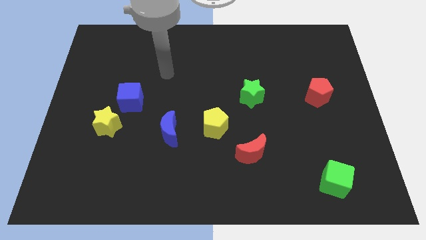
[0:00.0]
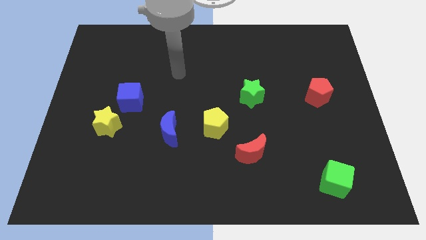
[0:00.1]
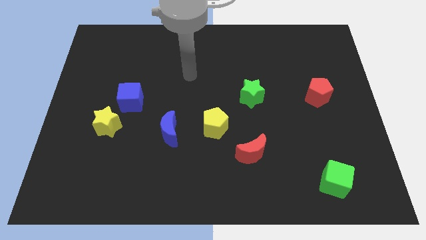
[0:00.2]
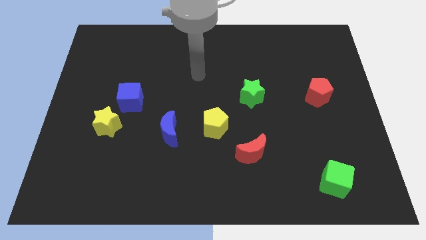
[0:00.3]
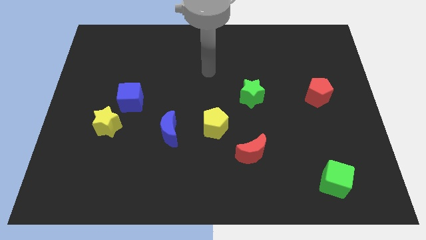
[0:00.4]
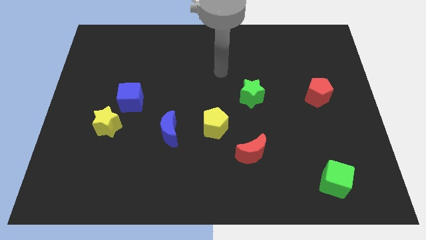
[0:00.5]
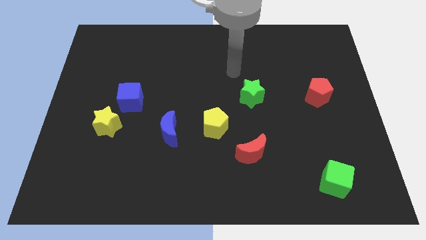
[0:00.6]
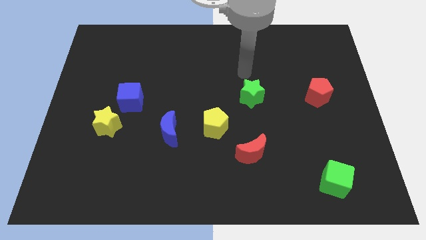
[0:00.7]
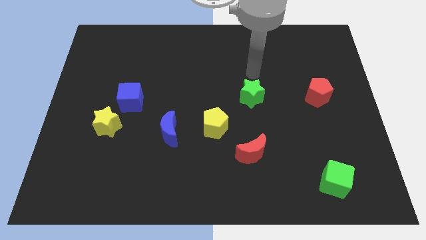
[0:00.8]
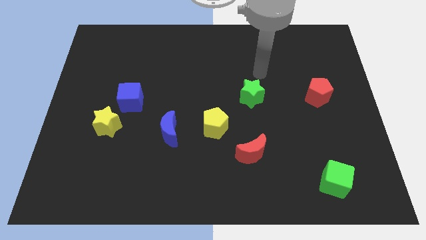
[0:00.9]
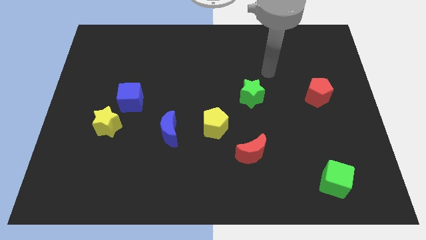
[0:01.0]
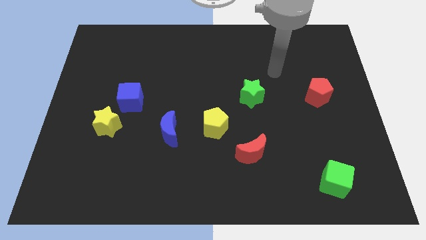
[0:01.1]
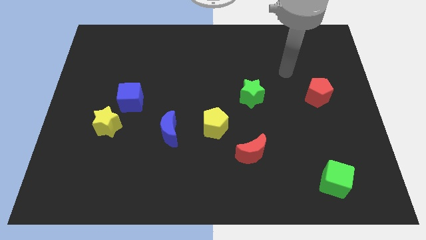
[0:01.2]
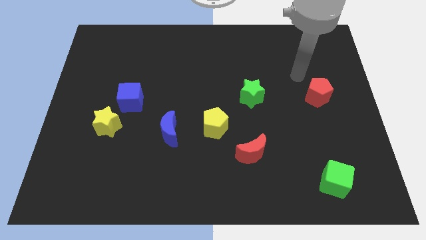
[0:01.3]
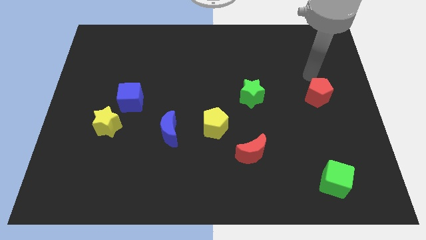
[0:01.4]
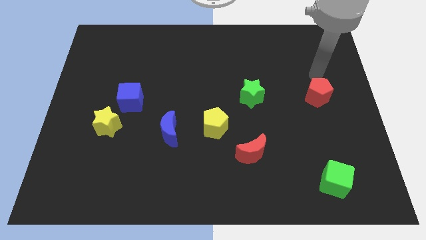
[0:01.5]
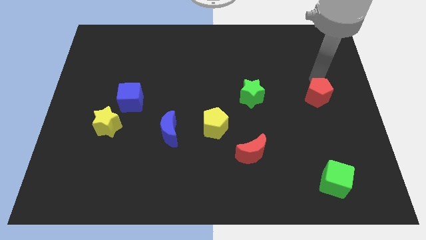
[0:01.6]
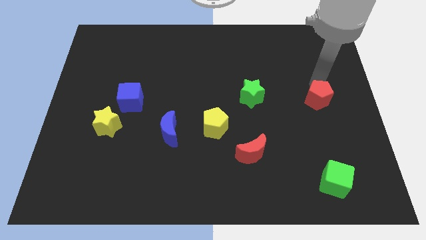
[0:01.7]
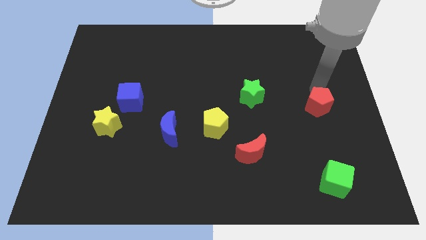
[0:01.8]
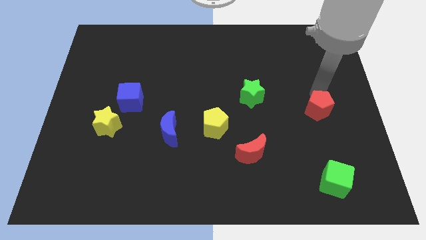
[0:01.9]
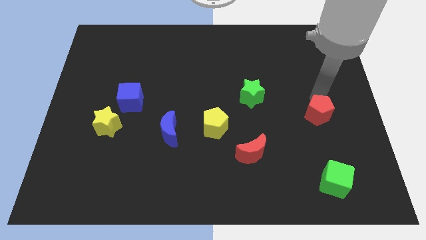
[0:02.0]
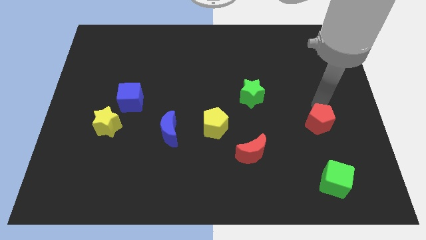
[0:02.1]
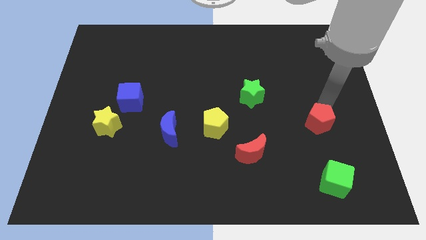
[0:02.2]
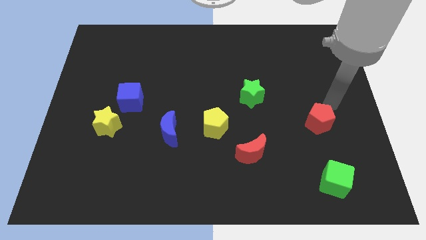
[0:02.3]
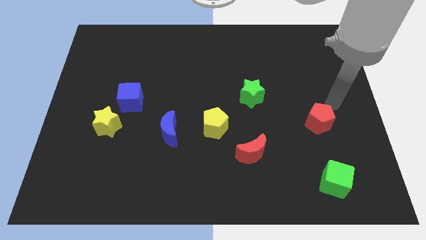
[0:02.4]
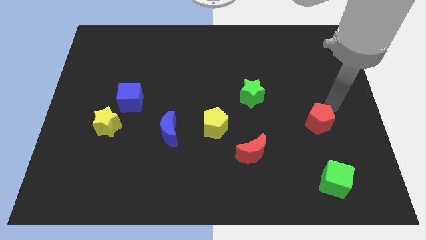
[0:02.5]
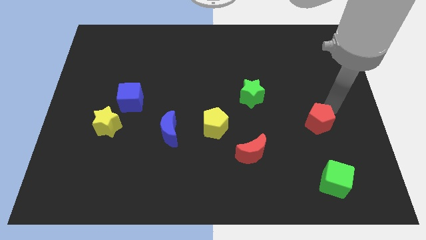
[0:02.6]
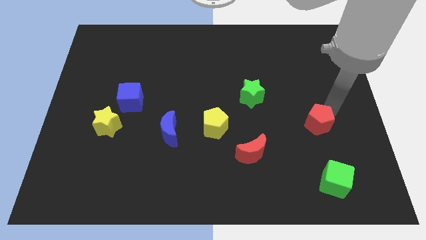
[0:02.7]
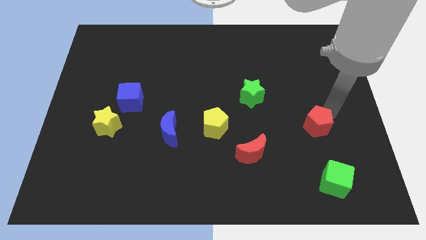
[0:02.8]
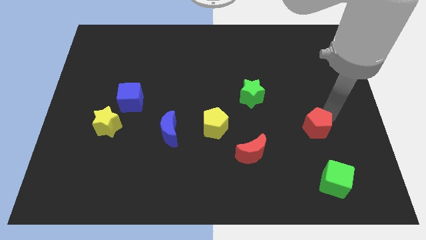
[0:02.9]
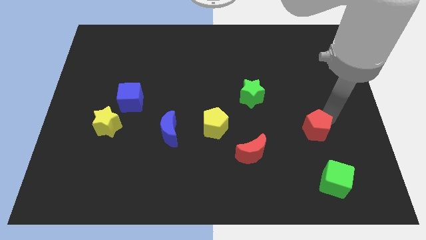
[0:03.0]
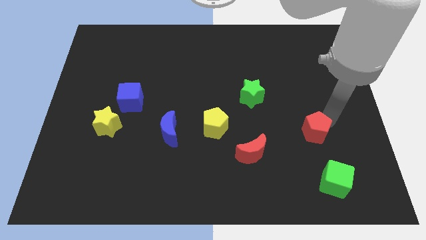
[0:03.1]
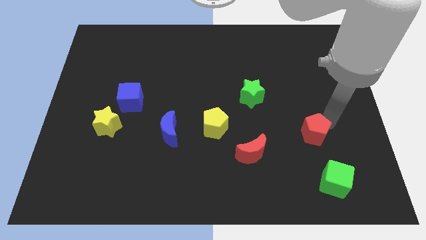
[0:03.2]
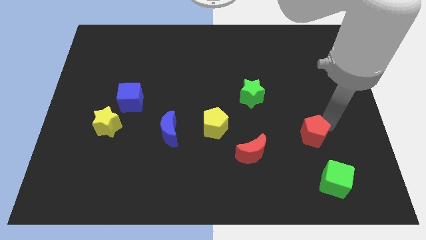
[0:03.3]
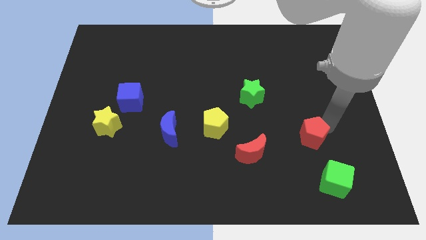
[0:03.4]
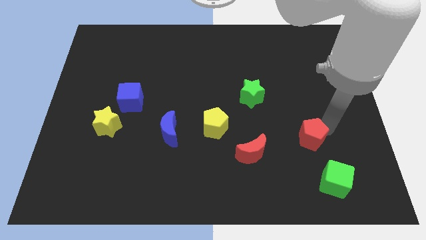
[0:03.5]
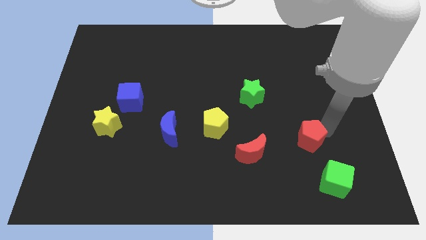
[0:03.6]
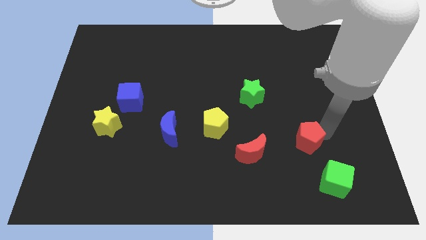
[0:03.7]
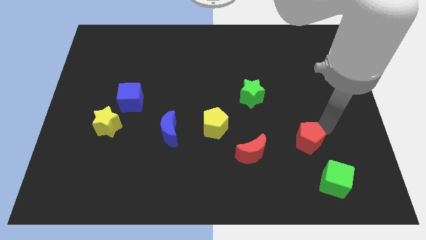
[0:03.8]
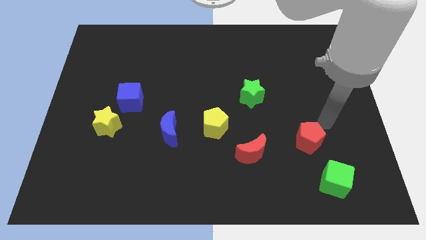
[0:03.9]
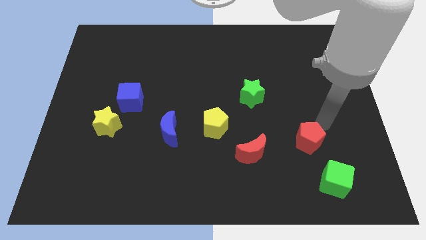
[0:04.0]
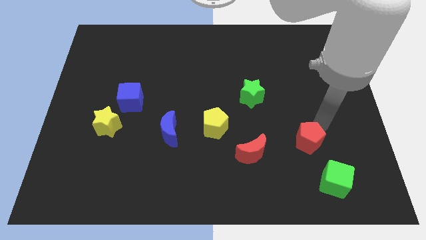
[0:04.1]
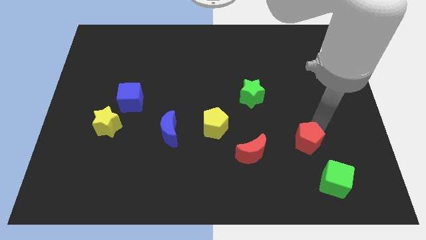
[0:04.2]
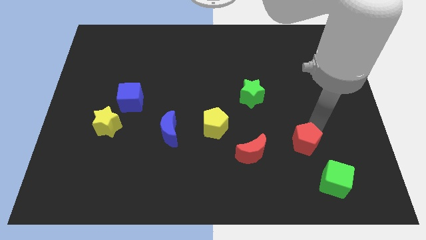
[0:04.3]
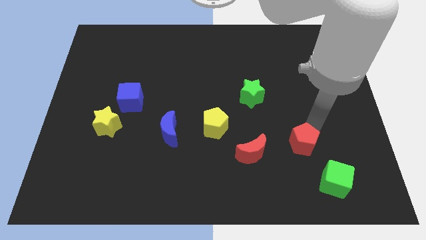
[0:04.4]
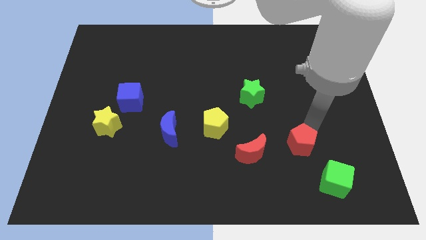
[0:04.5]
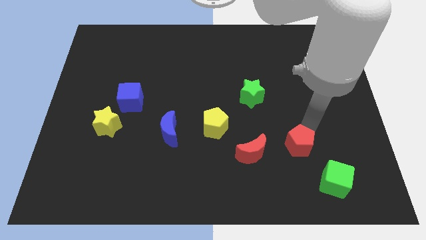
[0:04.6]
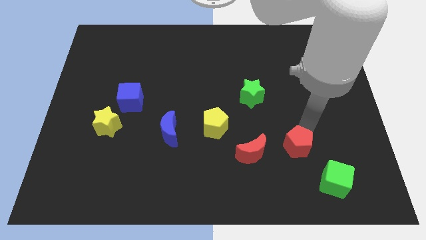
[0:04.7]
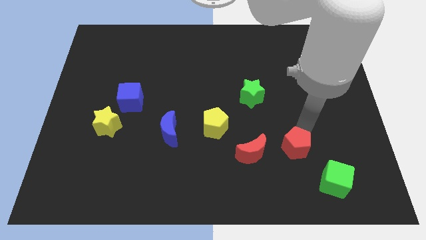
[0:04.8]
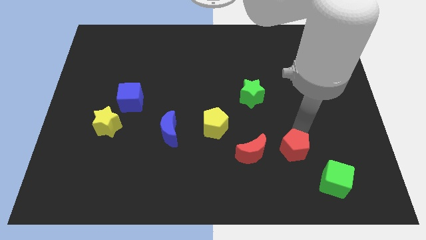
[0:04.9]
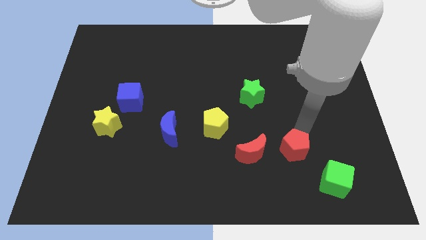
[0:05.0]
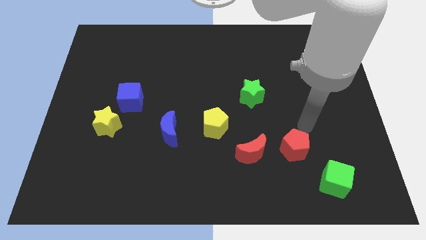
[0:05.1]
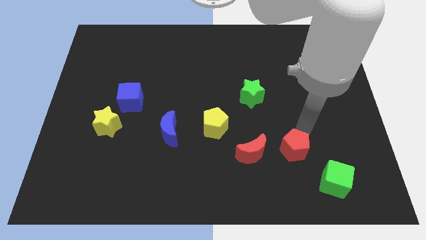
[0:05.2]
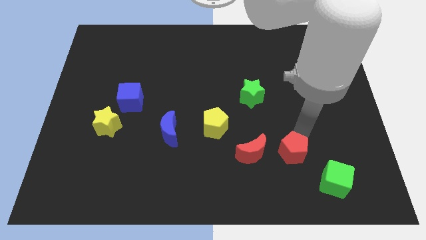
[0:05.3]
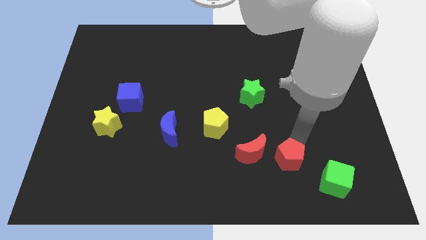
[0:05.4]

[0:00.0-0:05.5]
put the red pentagon diagonally down and to the right of the red moon

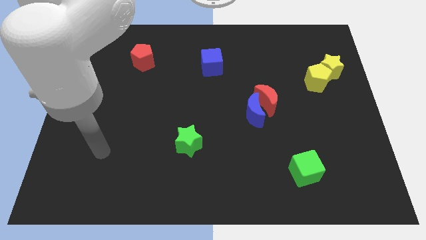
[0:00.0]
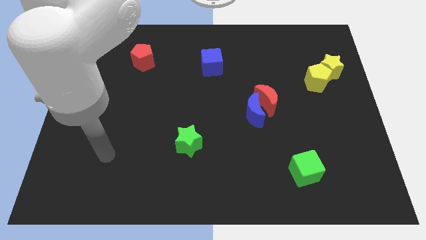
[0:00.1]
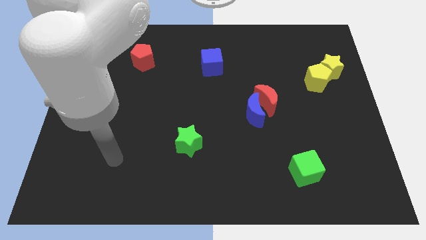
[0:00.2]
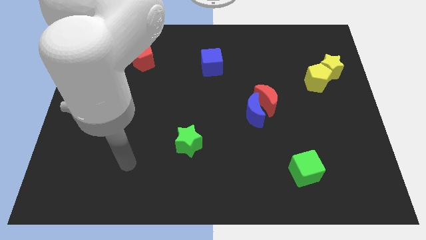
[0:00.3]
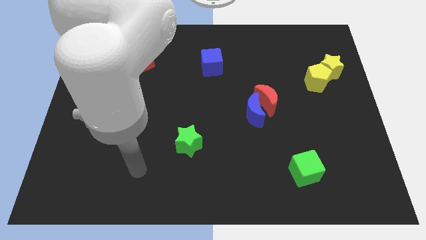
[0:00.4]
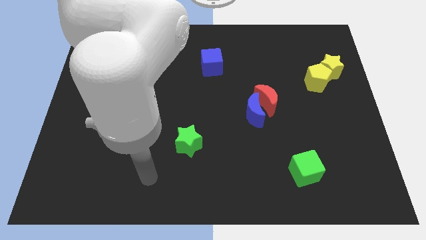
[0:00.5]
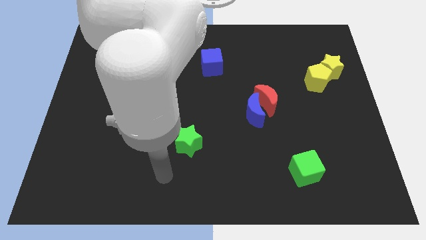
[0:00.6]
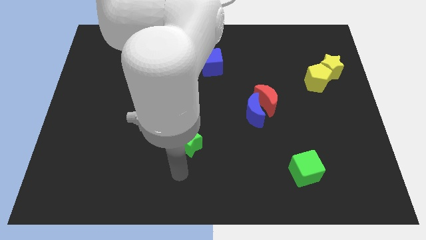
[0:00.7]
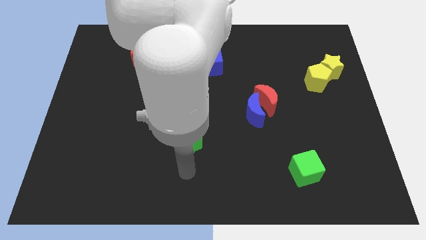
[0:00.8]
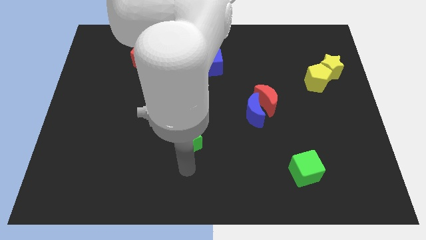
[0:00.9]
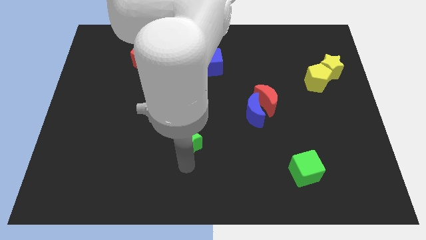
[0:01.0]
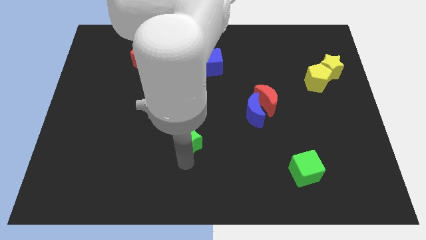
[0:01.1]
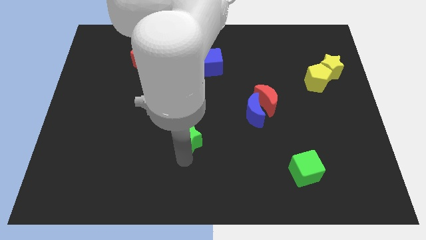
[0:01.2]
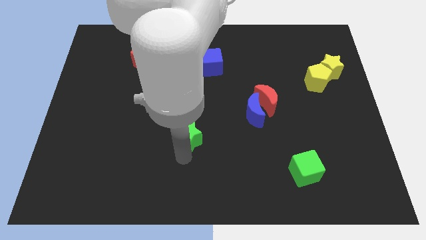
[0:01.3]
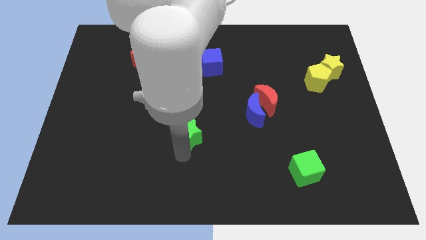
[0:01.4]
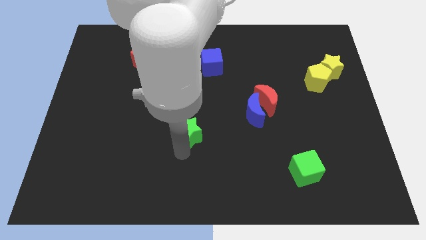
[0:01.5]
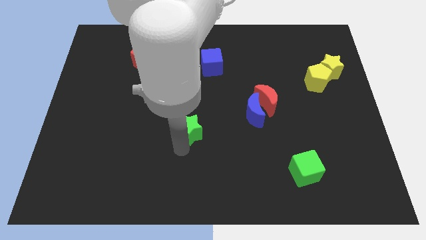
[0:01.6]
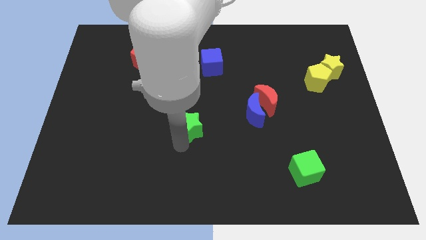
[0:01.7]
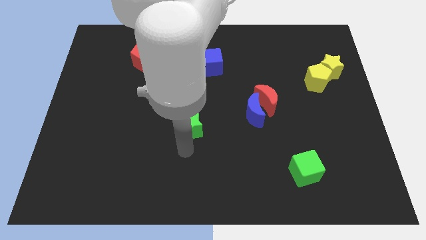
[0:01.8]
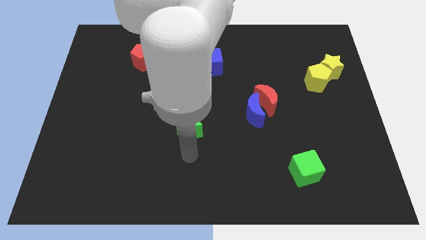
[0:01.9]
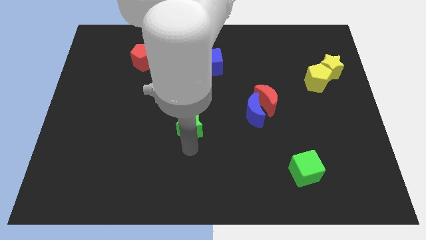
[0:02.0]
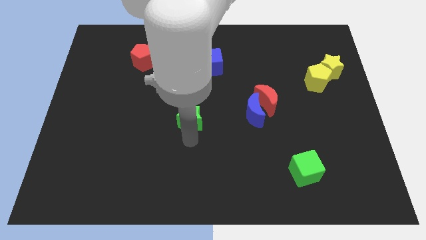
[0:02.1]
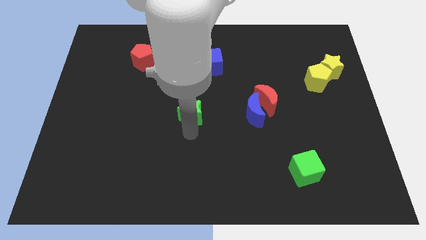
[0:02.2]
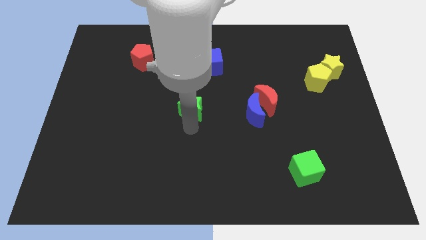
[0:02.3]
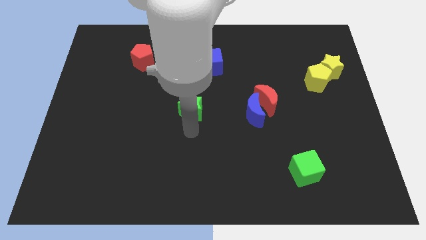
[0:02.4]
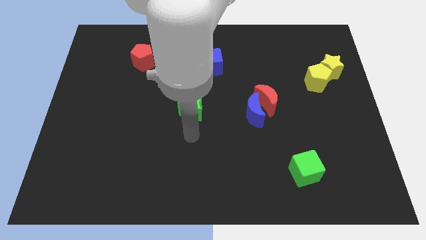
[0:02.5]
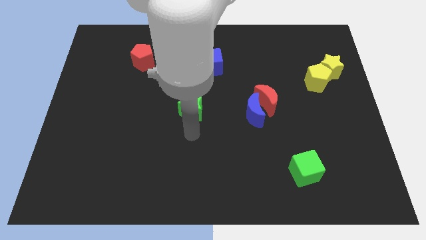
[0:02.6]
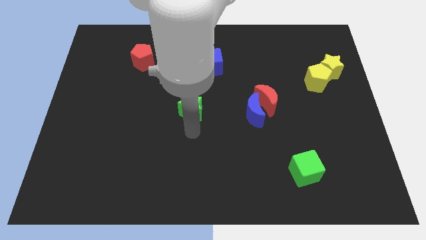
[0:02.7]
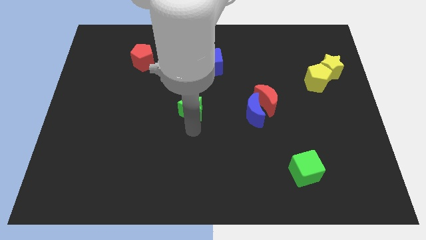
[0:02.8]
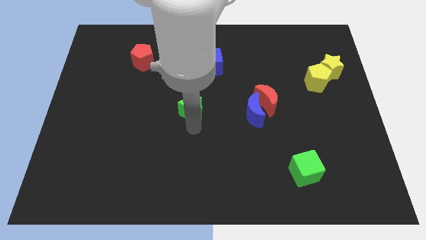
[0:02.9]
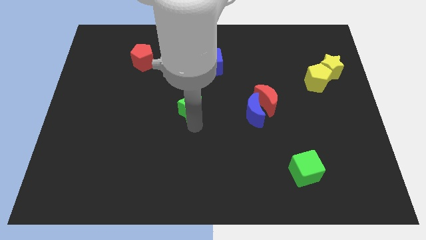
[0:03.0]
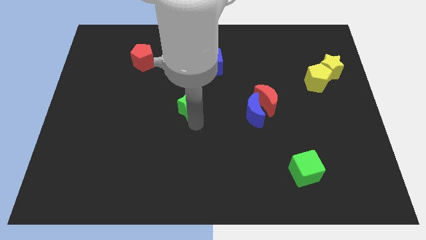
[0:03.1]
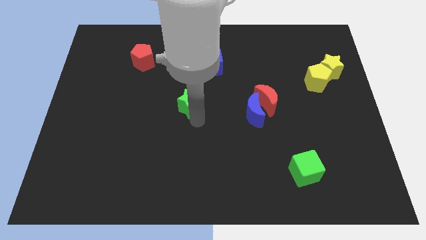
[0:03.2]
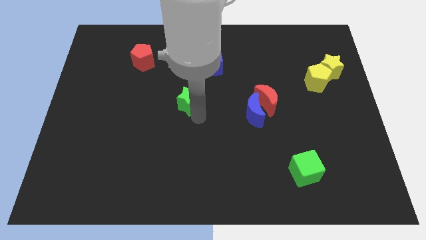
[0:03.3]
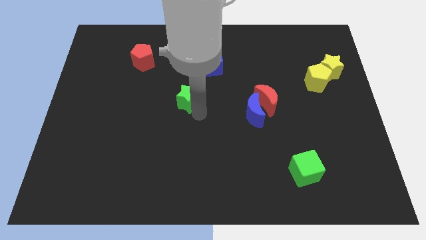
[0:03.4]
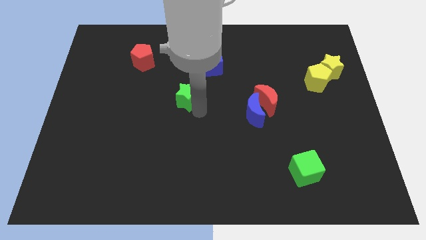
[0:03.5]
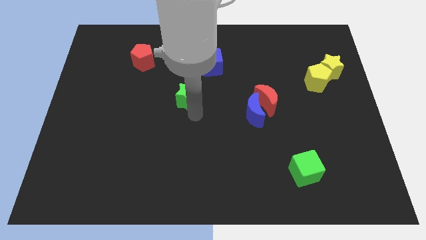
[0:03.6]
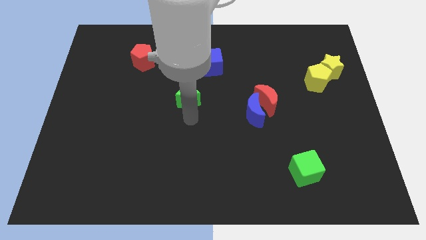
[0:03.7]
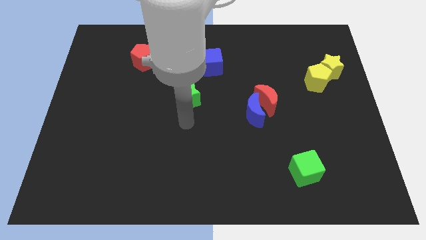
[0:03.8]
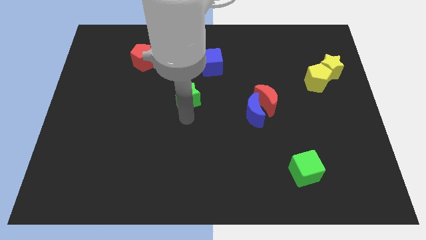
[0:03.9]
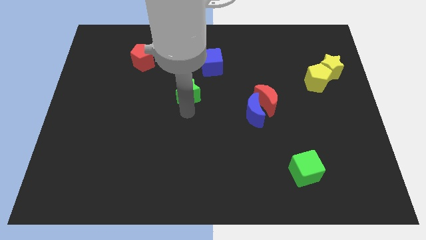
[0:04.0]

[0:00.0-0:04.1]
put the green star diagonally down and to the left of the blue cube
